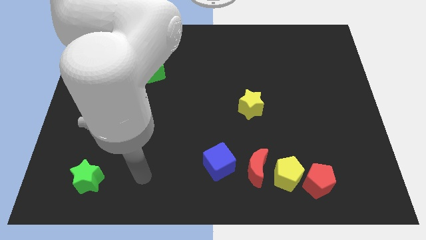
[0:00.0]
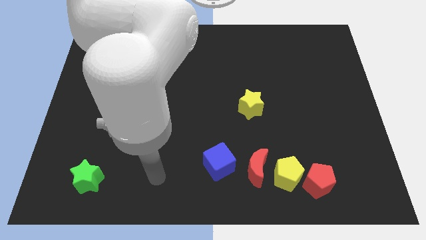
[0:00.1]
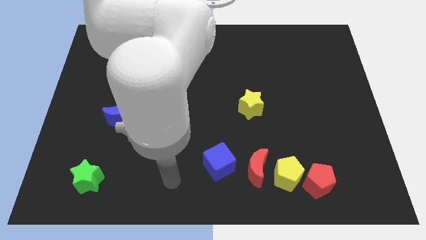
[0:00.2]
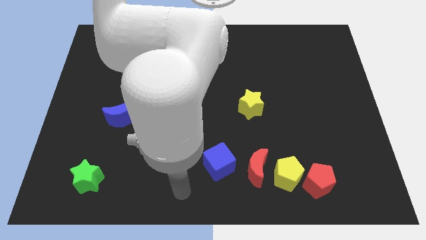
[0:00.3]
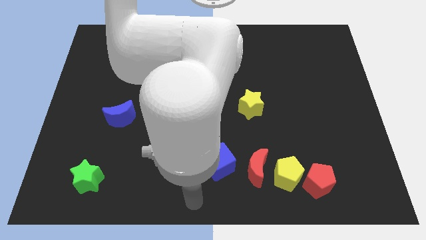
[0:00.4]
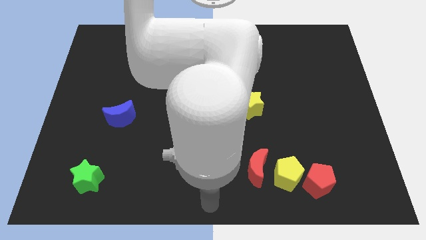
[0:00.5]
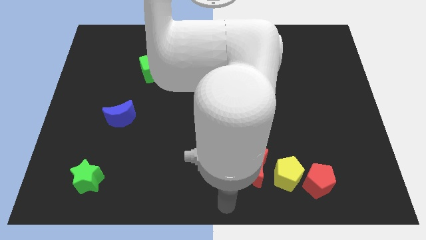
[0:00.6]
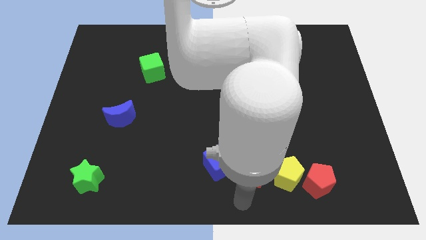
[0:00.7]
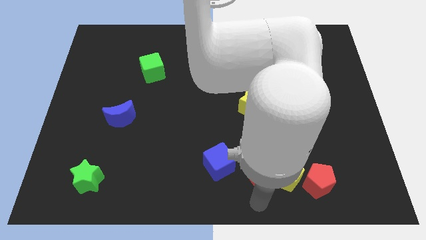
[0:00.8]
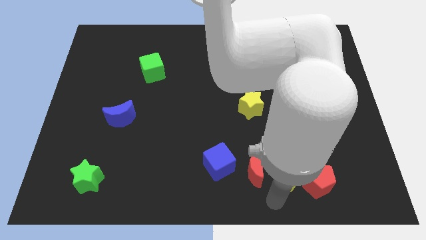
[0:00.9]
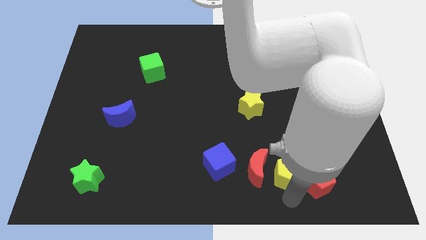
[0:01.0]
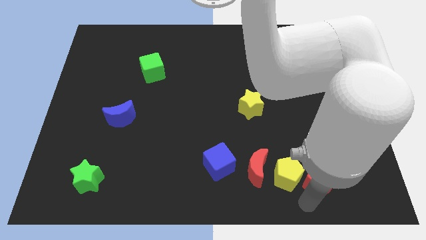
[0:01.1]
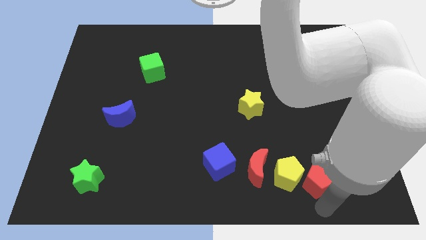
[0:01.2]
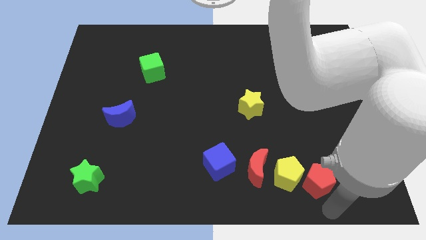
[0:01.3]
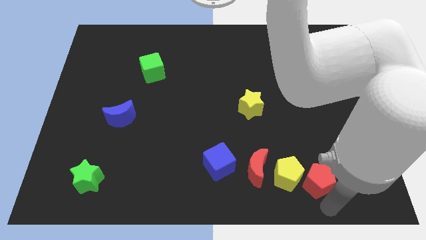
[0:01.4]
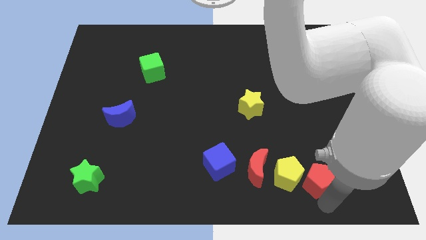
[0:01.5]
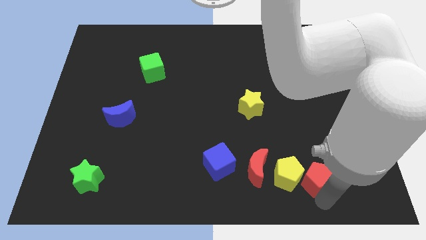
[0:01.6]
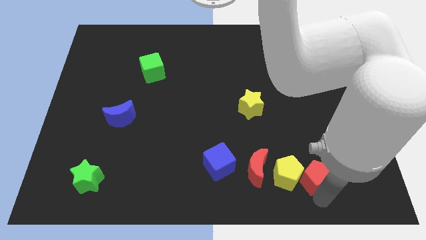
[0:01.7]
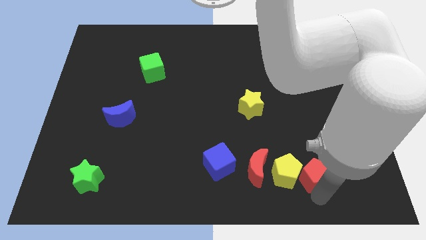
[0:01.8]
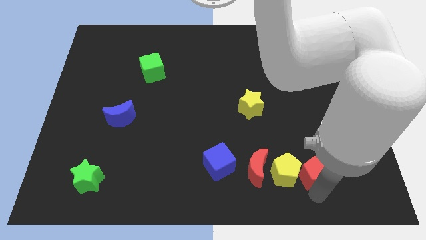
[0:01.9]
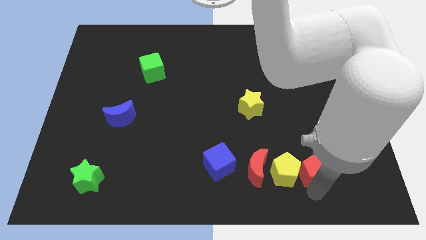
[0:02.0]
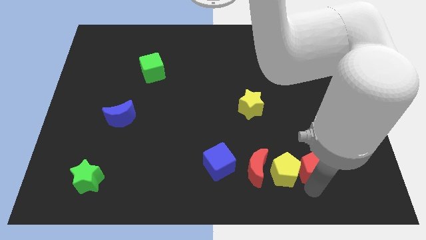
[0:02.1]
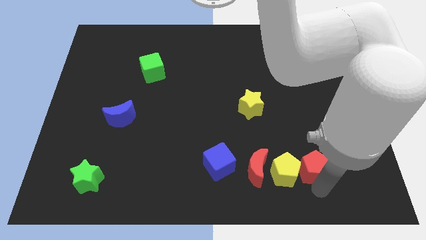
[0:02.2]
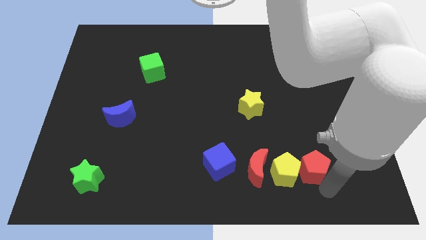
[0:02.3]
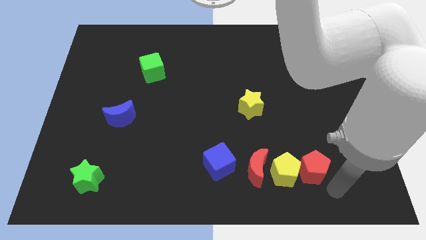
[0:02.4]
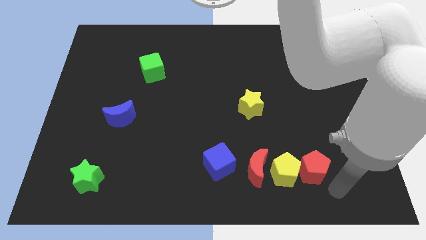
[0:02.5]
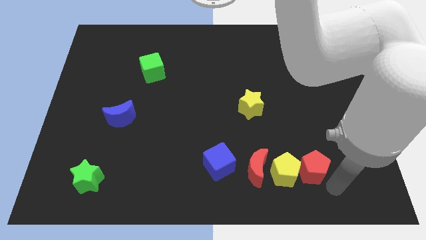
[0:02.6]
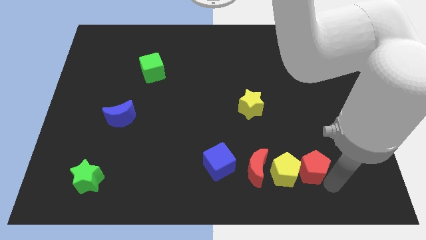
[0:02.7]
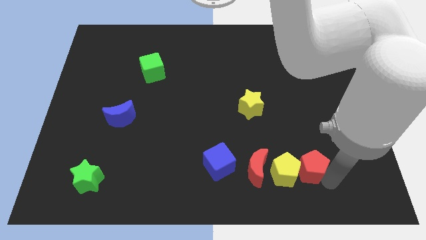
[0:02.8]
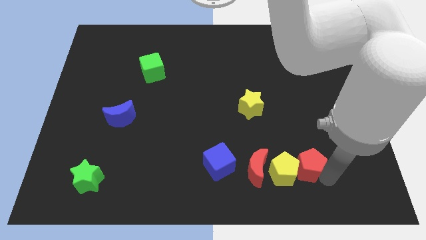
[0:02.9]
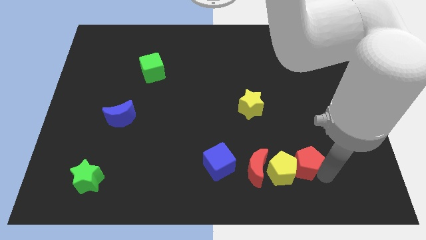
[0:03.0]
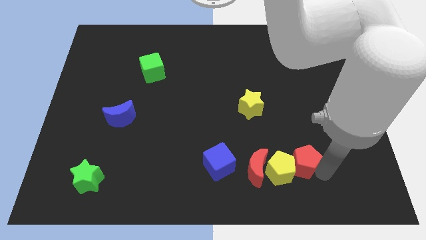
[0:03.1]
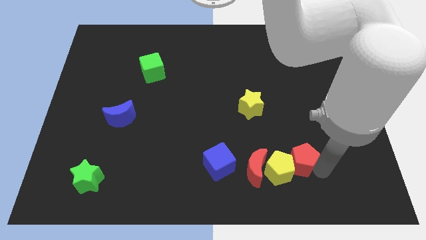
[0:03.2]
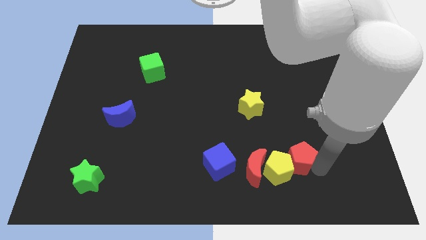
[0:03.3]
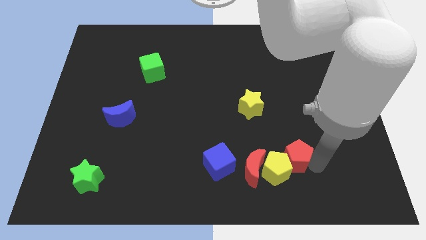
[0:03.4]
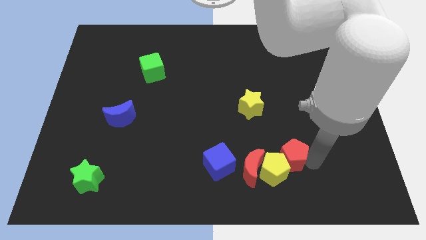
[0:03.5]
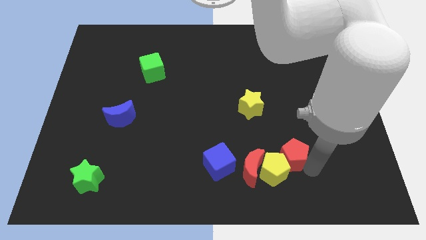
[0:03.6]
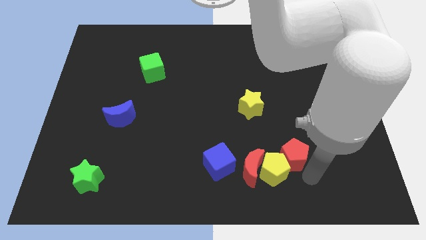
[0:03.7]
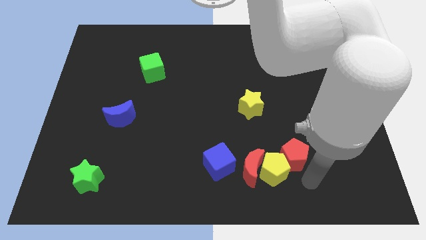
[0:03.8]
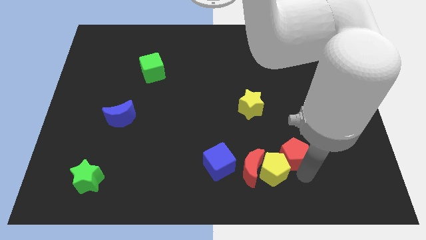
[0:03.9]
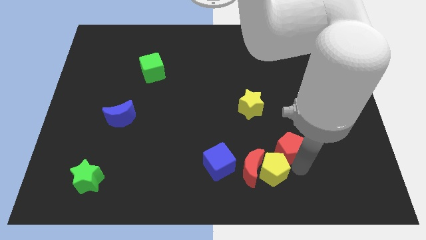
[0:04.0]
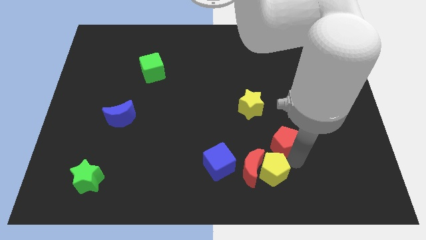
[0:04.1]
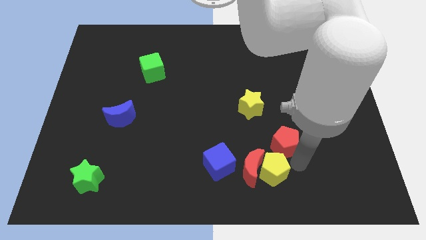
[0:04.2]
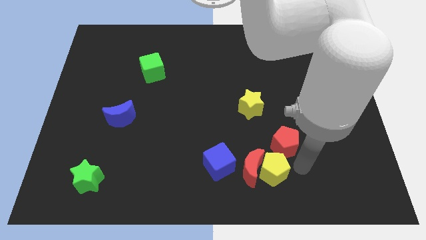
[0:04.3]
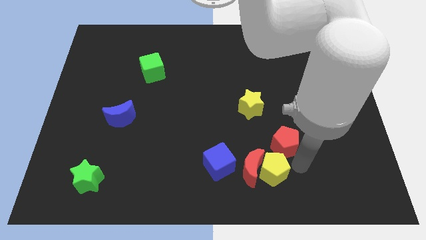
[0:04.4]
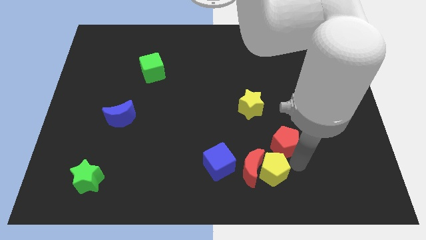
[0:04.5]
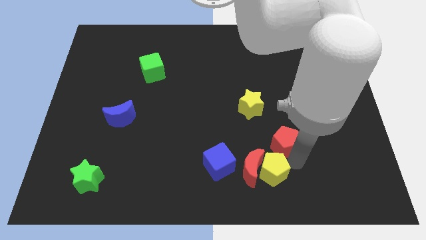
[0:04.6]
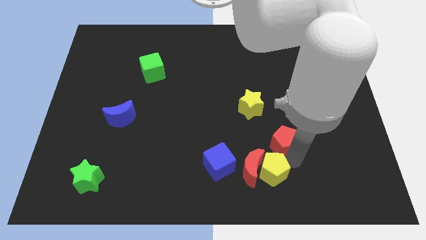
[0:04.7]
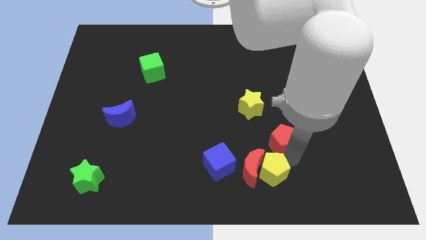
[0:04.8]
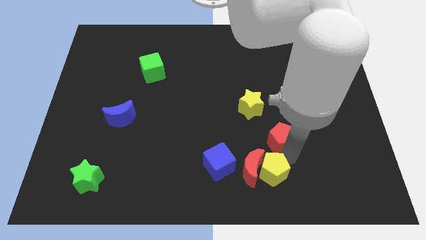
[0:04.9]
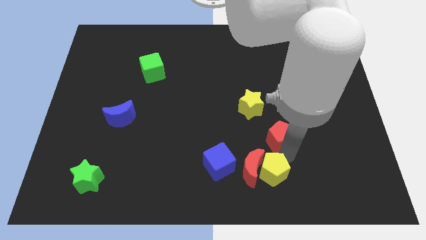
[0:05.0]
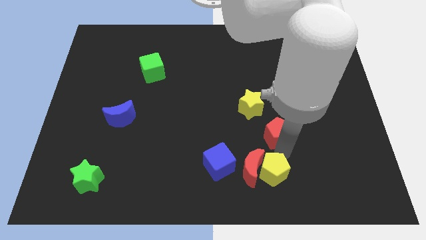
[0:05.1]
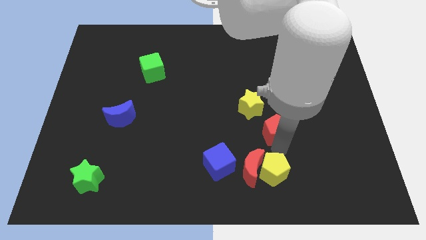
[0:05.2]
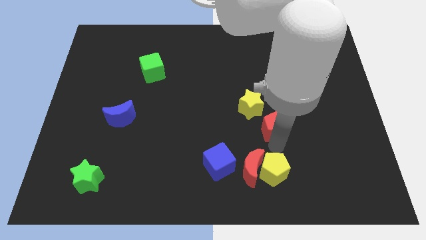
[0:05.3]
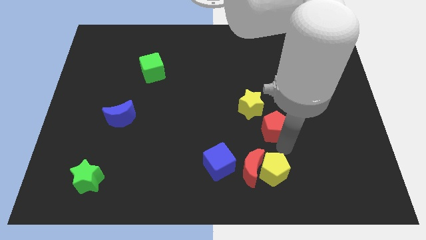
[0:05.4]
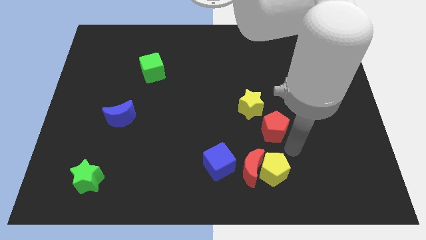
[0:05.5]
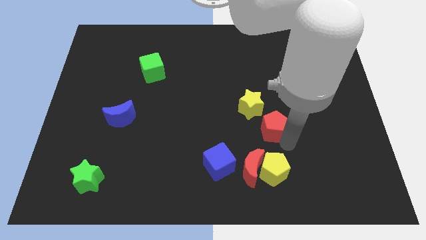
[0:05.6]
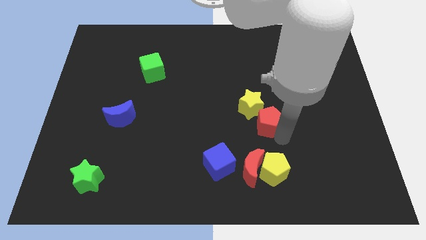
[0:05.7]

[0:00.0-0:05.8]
slide the red pentagon close to the yellow star

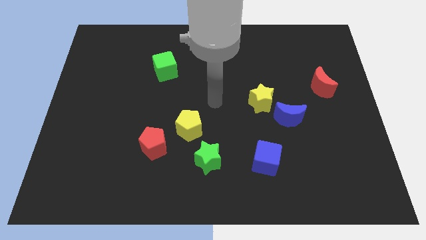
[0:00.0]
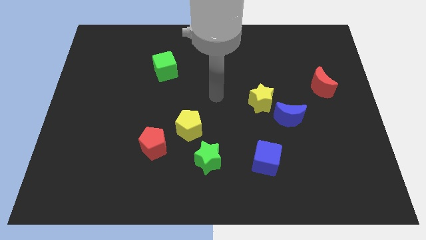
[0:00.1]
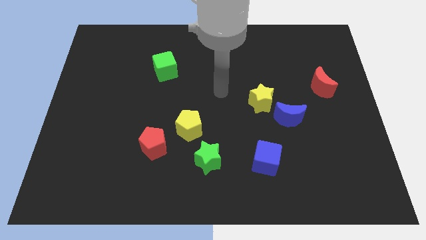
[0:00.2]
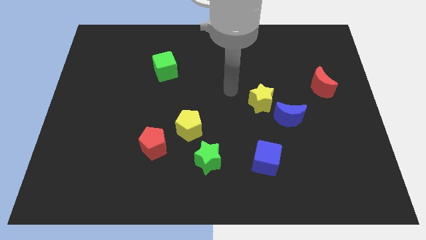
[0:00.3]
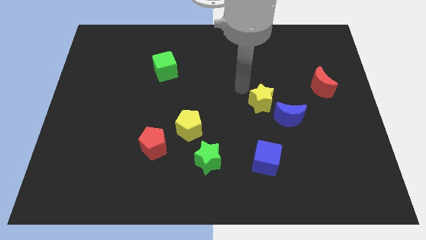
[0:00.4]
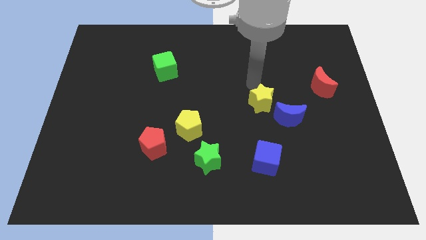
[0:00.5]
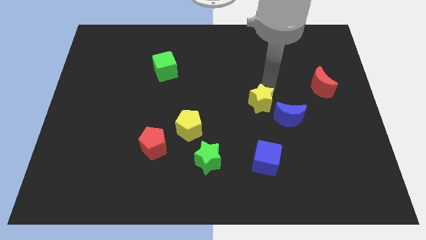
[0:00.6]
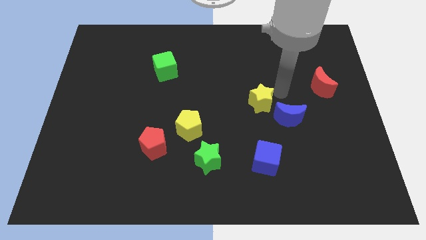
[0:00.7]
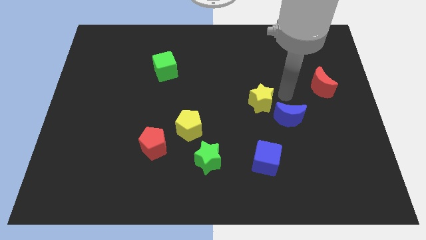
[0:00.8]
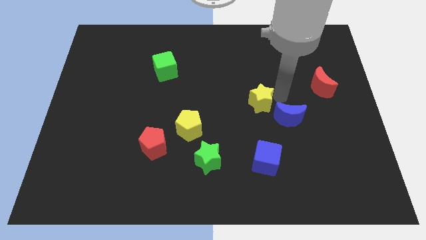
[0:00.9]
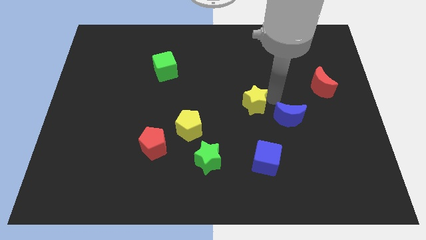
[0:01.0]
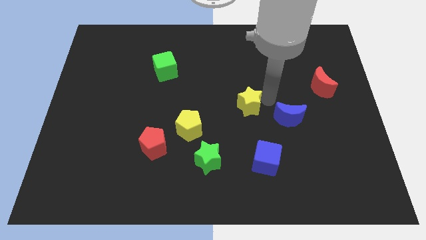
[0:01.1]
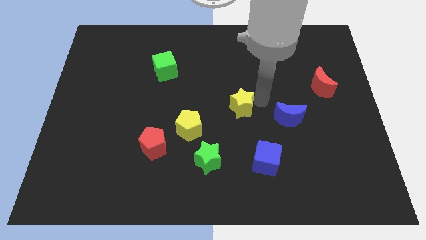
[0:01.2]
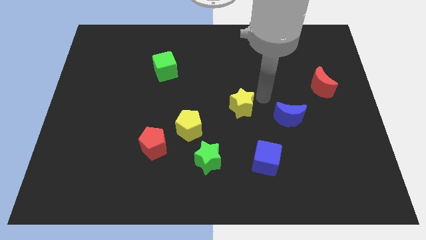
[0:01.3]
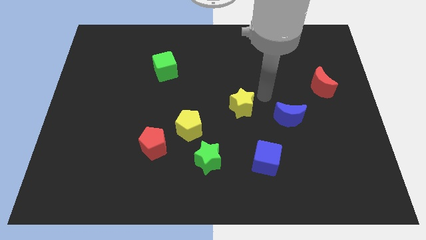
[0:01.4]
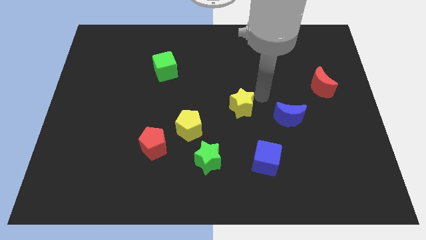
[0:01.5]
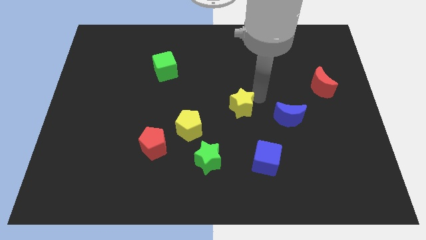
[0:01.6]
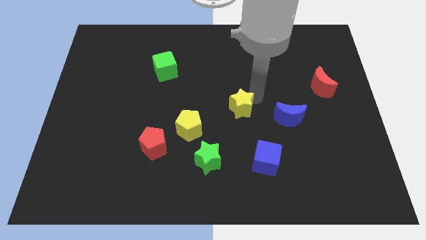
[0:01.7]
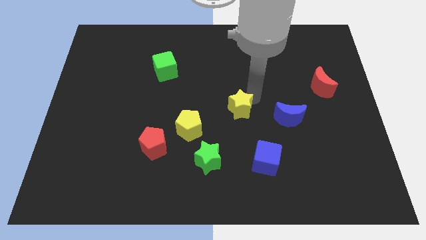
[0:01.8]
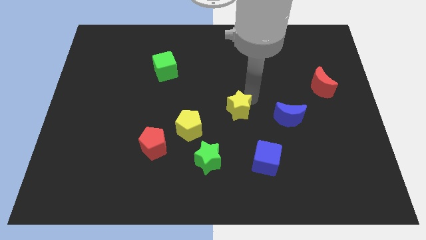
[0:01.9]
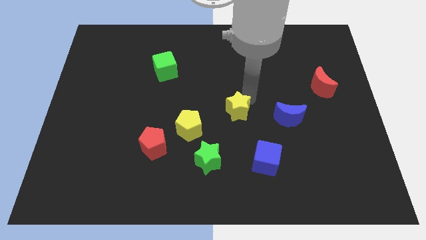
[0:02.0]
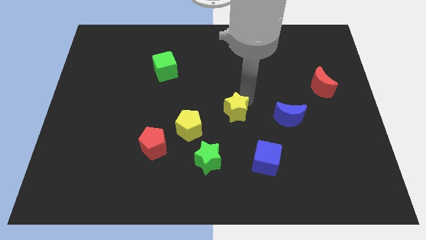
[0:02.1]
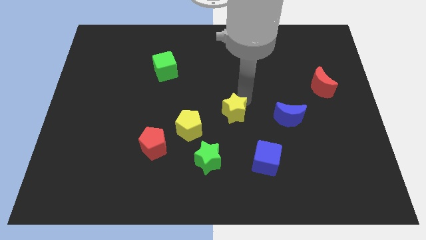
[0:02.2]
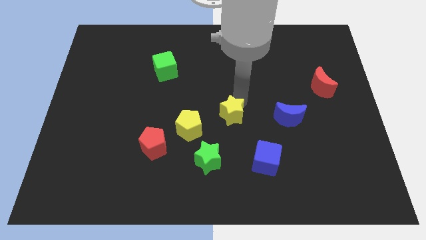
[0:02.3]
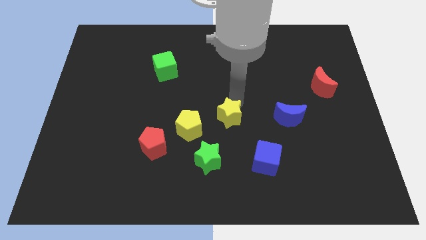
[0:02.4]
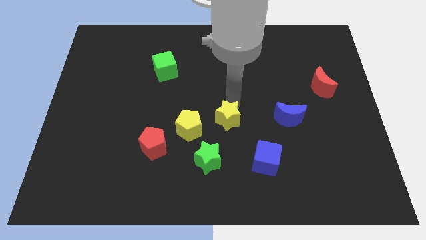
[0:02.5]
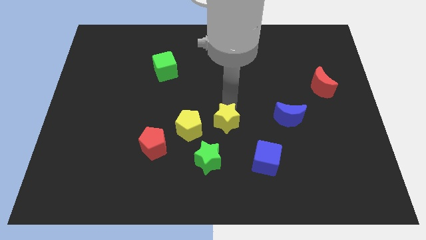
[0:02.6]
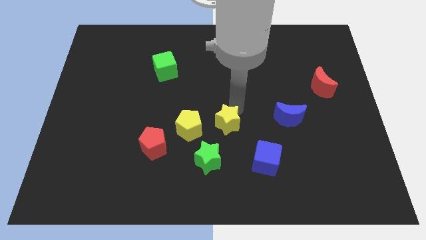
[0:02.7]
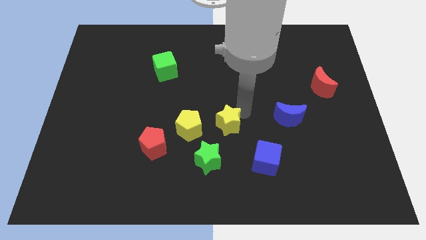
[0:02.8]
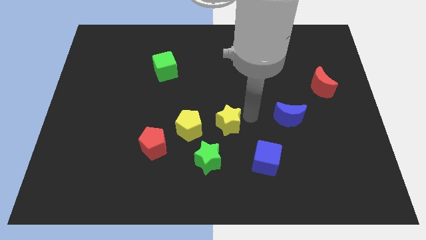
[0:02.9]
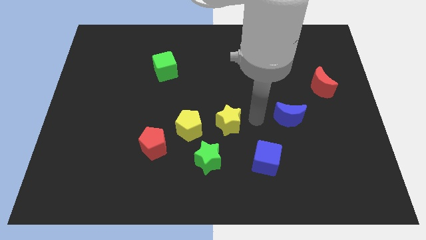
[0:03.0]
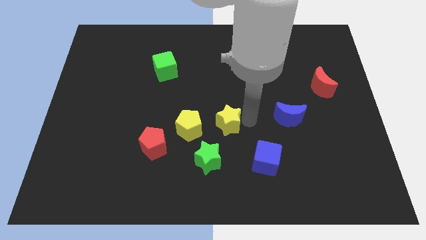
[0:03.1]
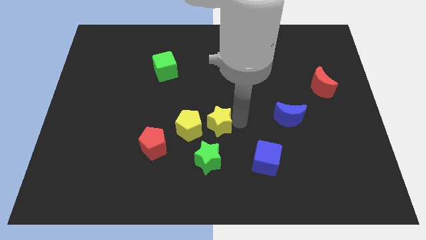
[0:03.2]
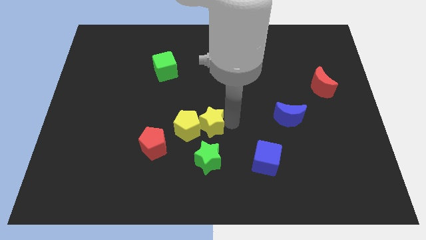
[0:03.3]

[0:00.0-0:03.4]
push the yellow star to the yellow pentagon
